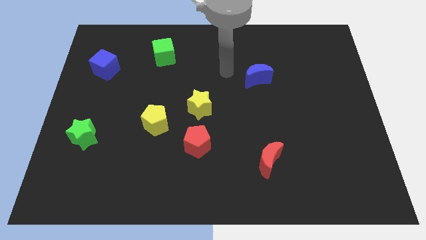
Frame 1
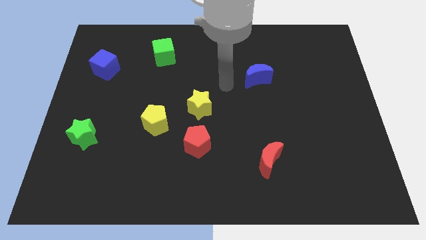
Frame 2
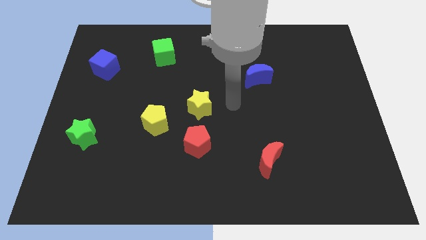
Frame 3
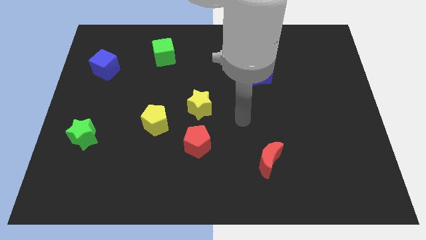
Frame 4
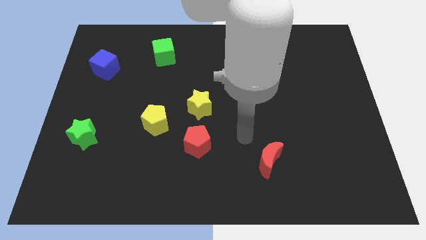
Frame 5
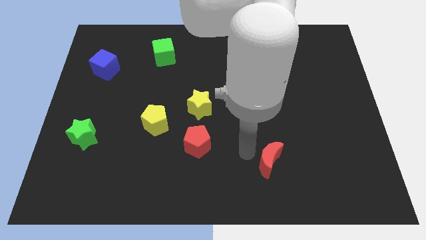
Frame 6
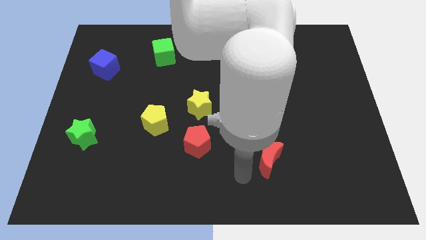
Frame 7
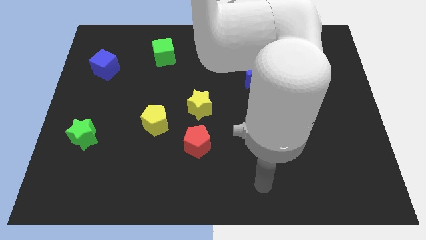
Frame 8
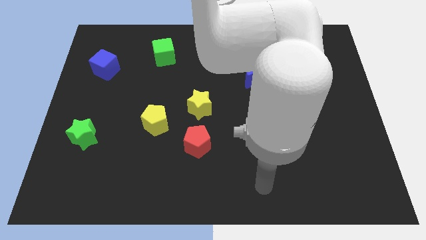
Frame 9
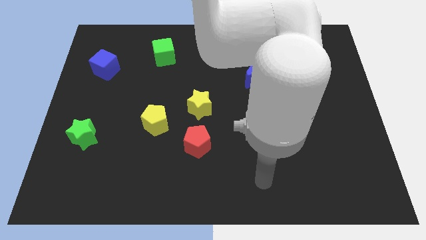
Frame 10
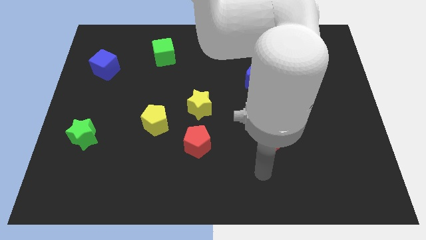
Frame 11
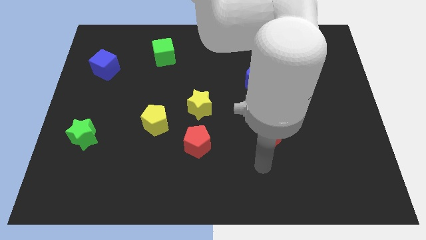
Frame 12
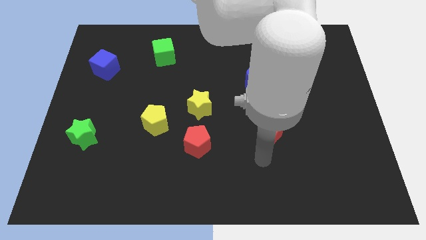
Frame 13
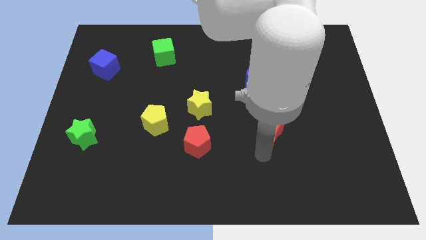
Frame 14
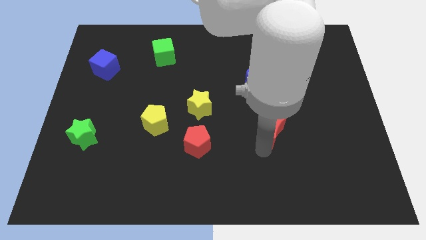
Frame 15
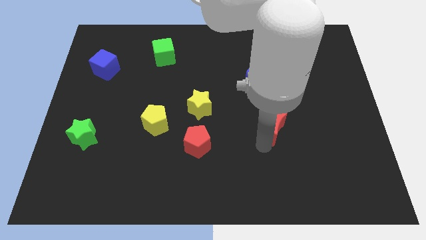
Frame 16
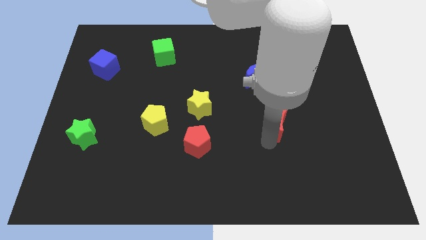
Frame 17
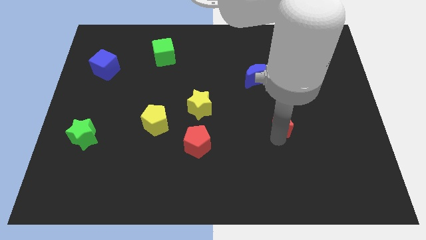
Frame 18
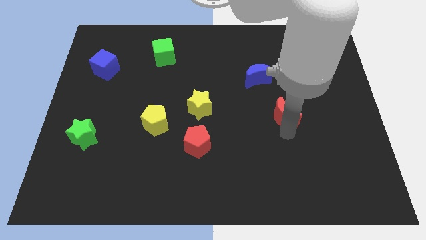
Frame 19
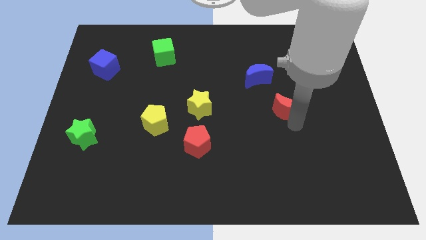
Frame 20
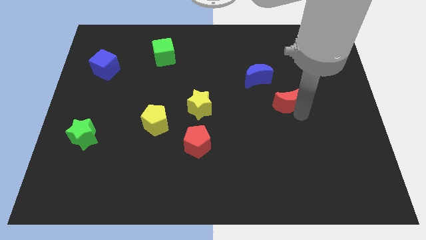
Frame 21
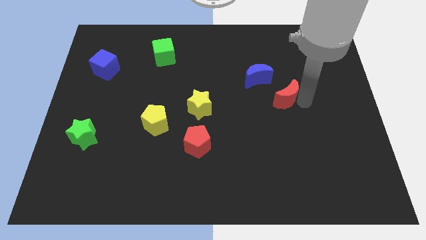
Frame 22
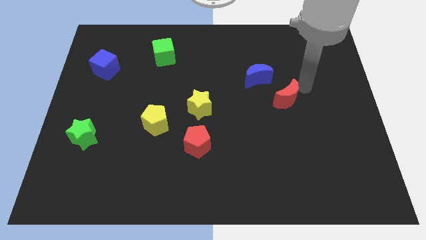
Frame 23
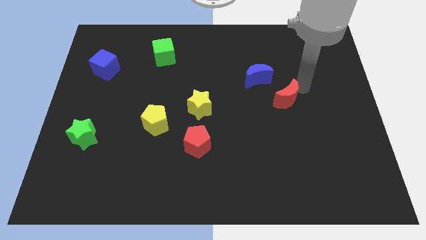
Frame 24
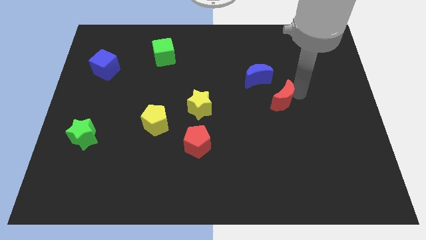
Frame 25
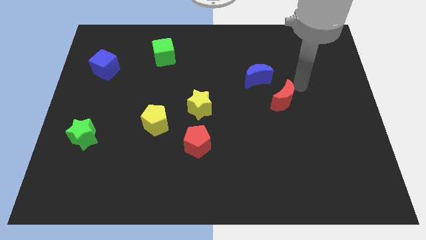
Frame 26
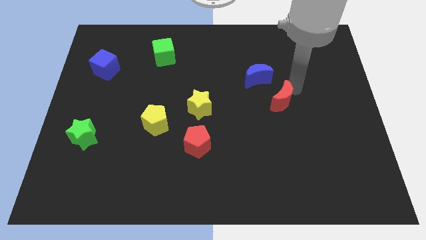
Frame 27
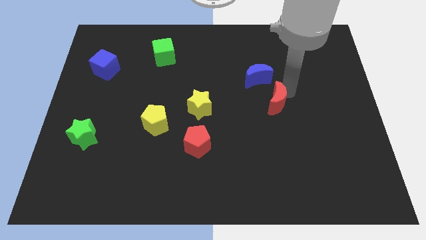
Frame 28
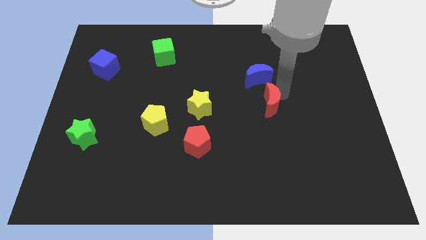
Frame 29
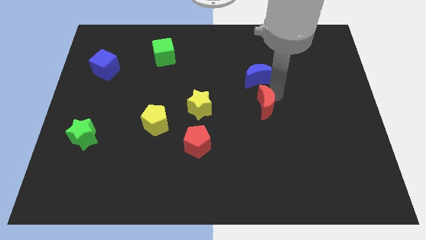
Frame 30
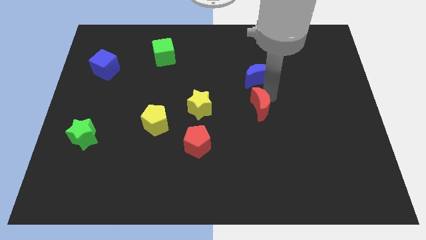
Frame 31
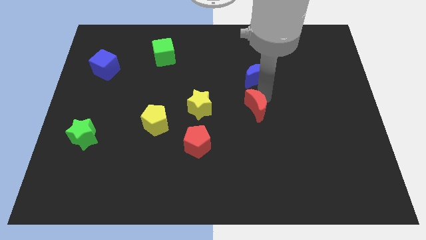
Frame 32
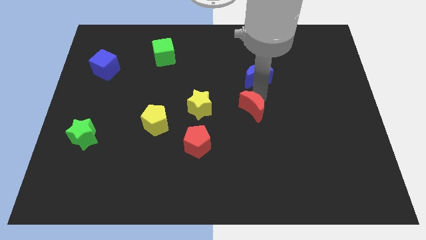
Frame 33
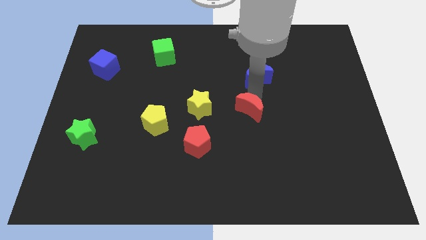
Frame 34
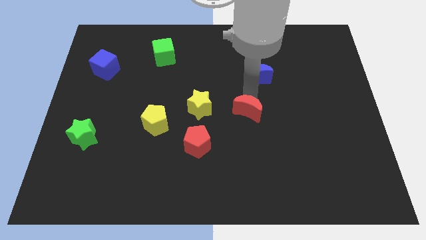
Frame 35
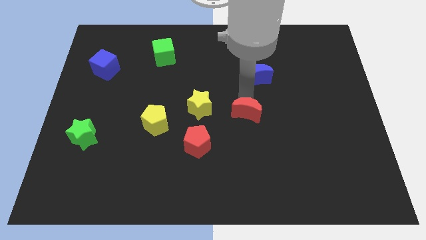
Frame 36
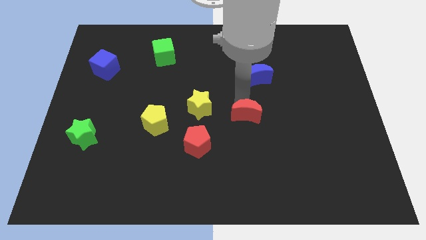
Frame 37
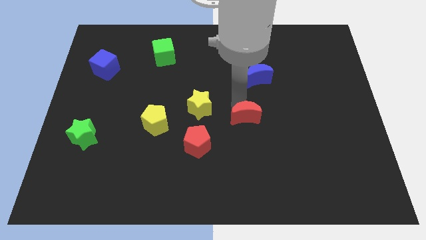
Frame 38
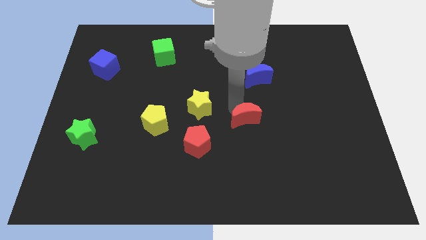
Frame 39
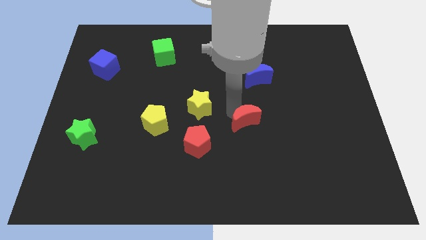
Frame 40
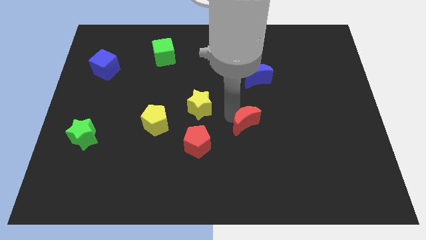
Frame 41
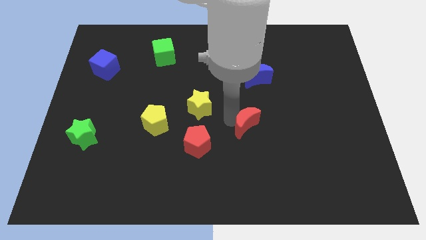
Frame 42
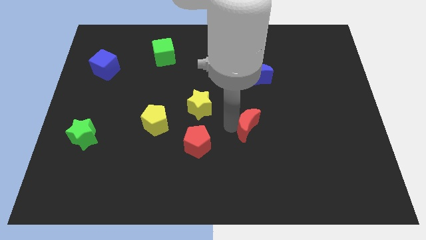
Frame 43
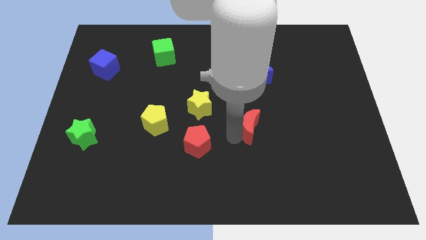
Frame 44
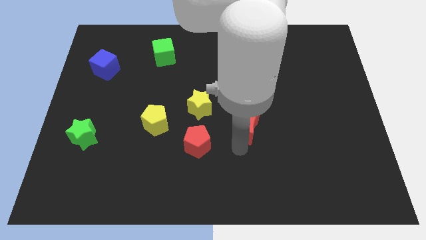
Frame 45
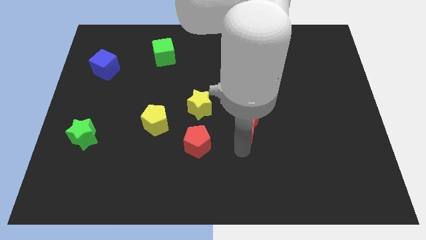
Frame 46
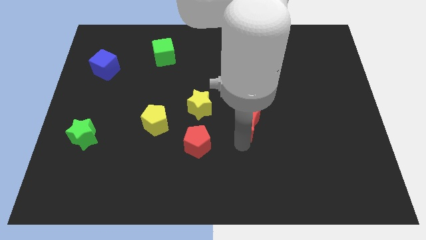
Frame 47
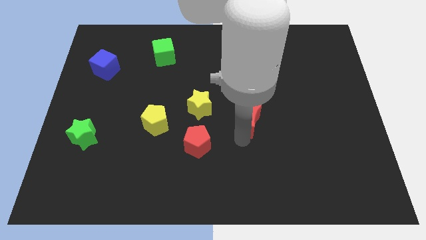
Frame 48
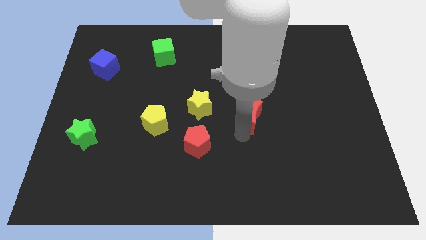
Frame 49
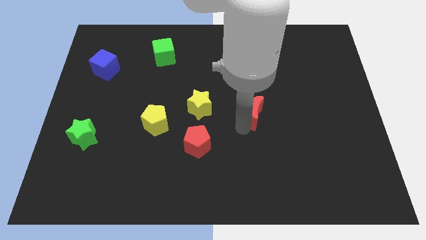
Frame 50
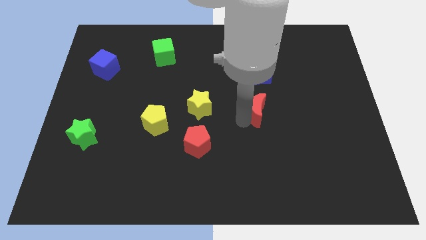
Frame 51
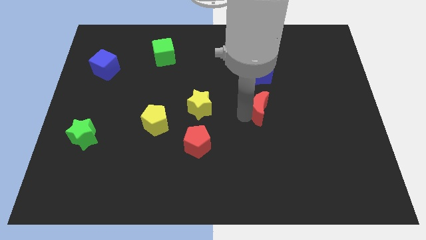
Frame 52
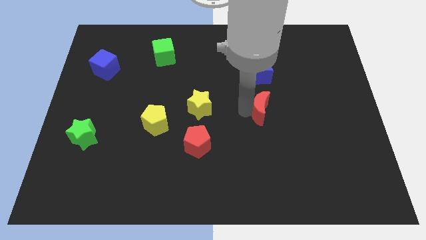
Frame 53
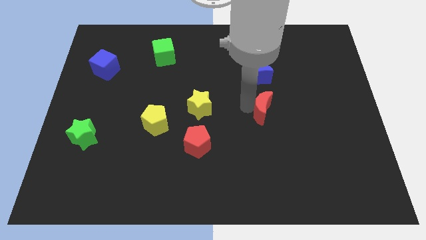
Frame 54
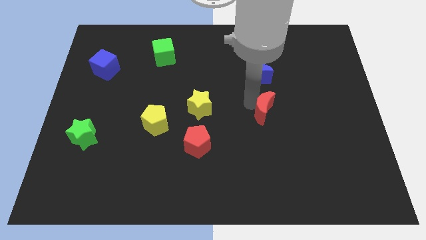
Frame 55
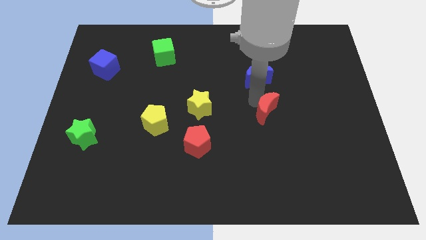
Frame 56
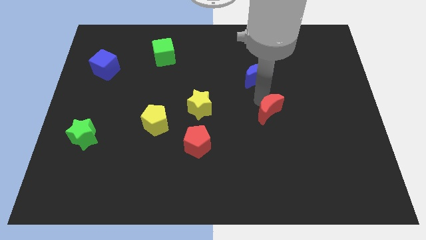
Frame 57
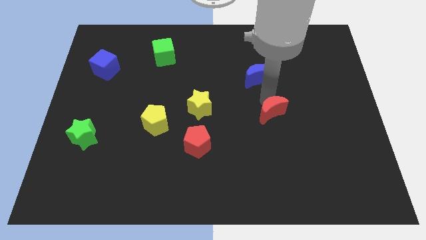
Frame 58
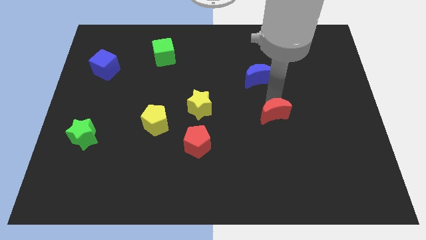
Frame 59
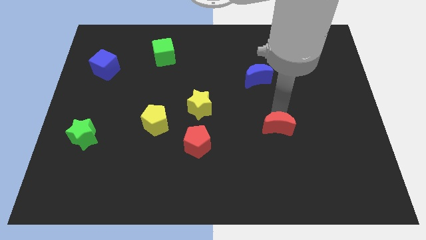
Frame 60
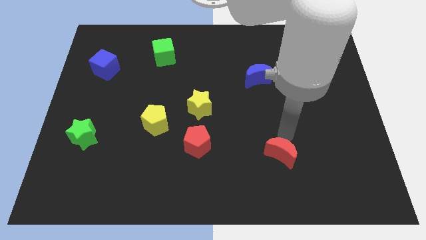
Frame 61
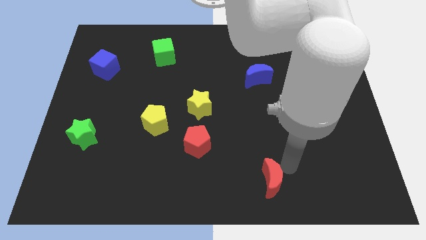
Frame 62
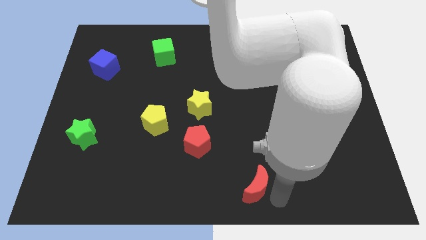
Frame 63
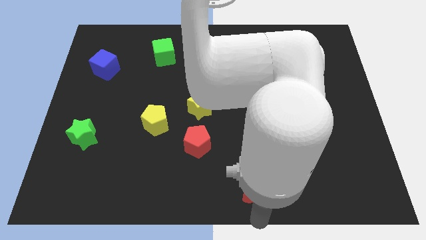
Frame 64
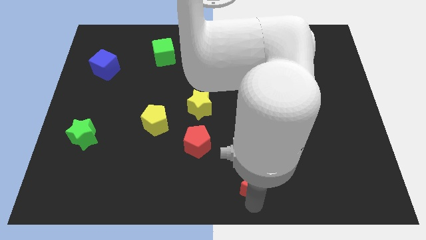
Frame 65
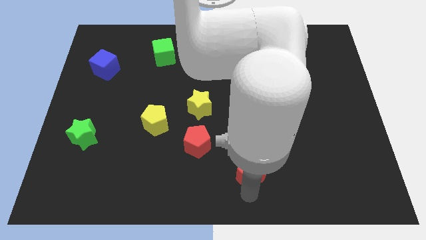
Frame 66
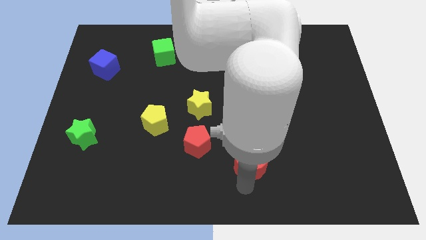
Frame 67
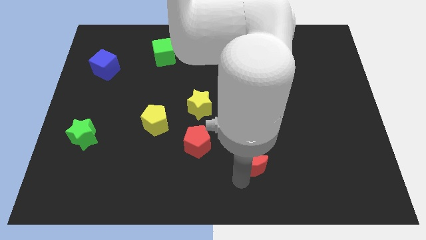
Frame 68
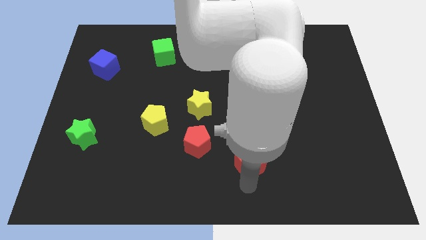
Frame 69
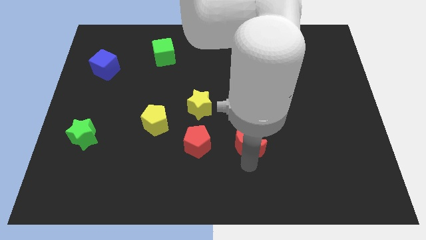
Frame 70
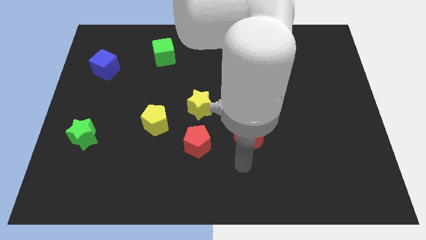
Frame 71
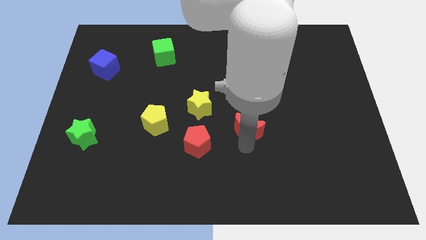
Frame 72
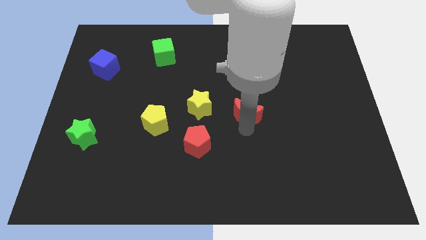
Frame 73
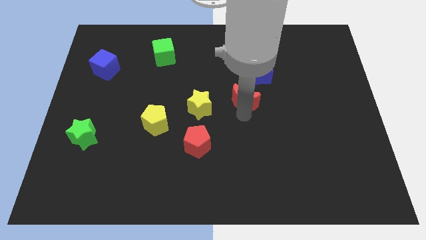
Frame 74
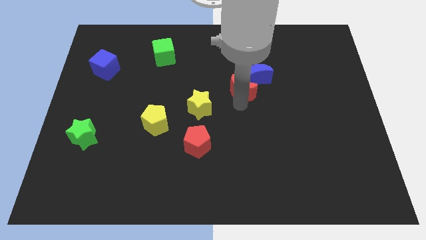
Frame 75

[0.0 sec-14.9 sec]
put the red moon towards the blue moon

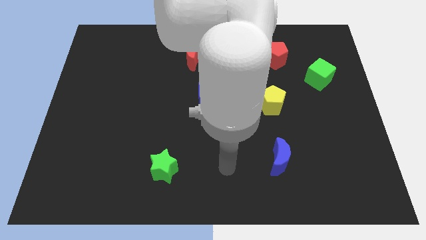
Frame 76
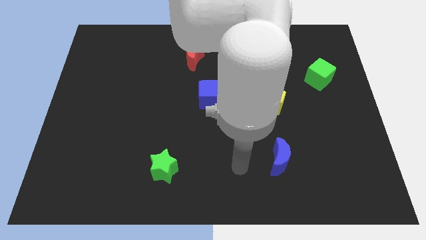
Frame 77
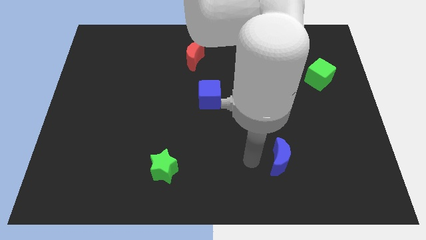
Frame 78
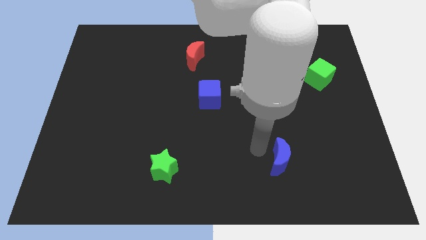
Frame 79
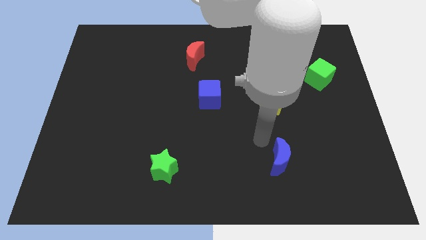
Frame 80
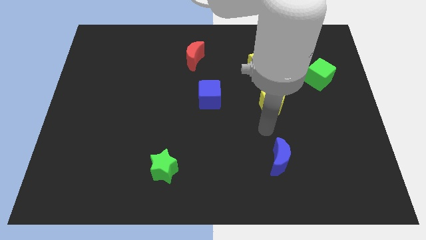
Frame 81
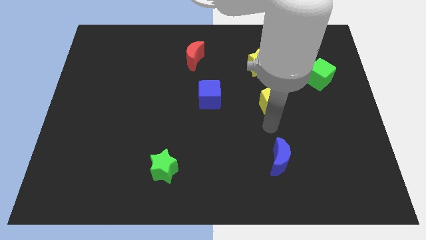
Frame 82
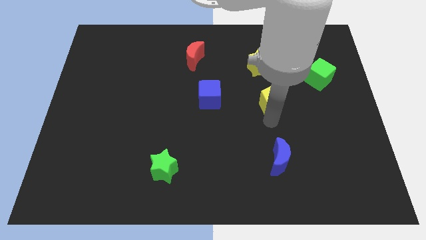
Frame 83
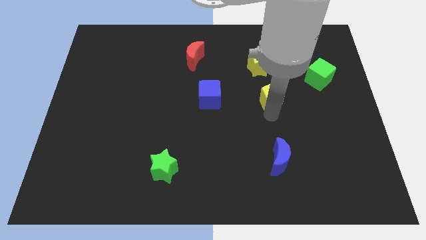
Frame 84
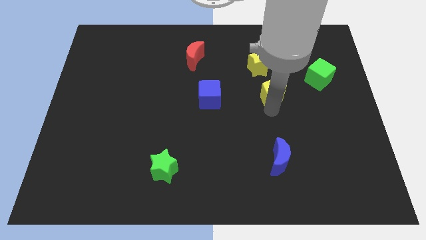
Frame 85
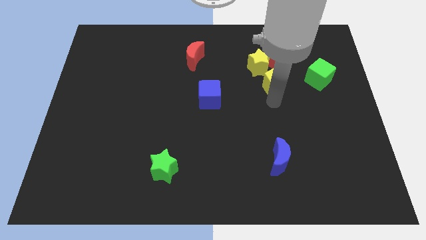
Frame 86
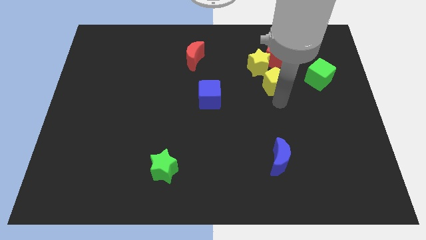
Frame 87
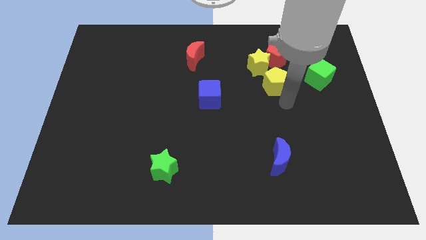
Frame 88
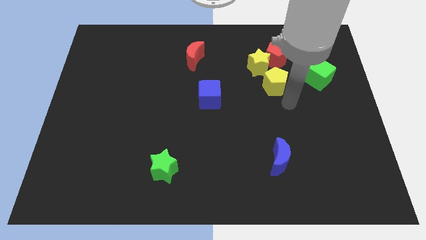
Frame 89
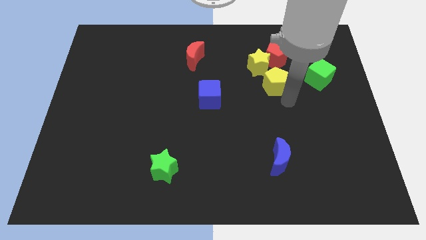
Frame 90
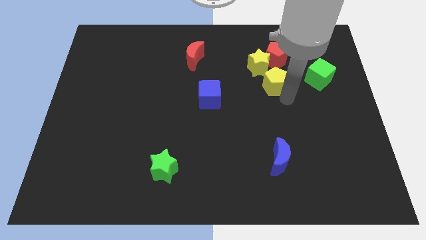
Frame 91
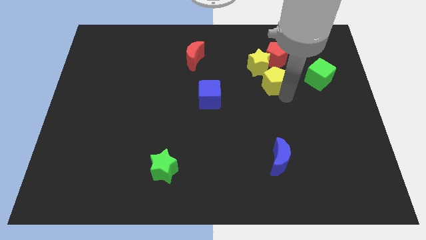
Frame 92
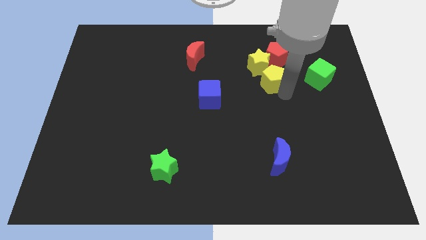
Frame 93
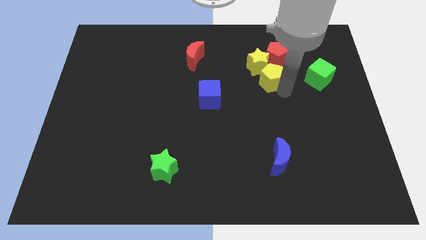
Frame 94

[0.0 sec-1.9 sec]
slide the yellow pentagon towards the yellow star
